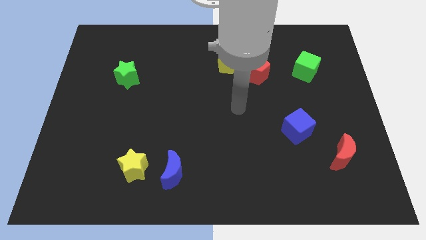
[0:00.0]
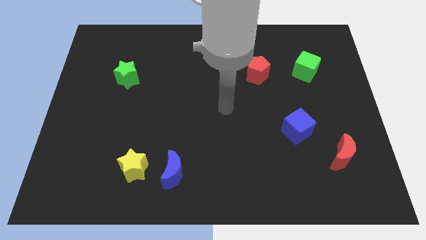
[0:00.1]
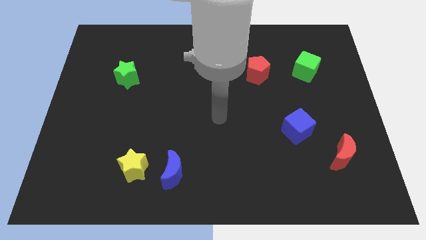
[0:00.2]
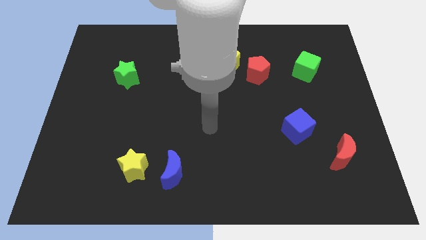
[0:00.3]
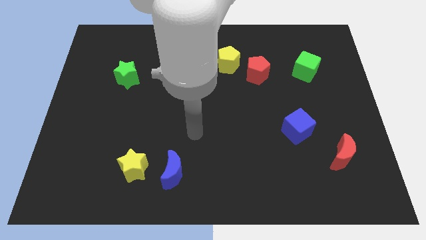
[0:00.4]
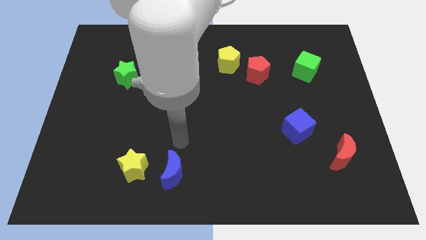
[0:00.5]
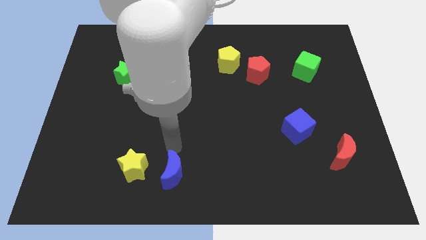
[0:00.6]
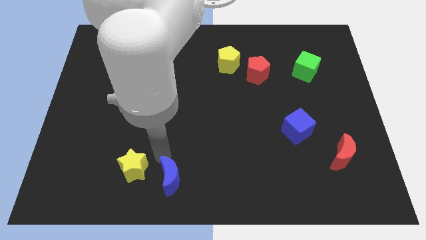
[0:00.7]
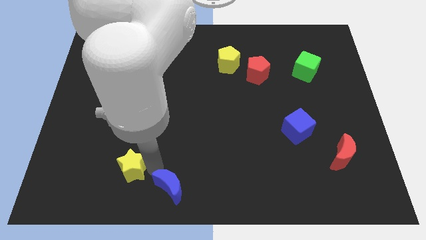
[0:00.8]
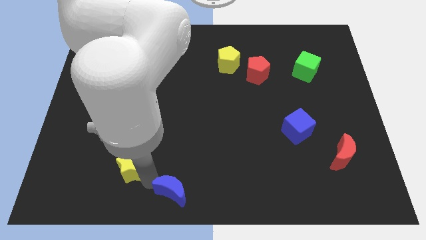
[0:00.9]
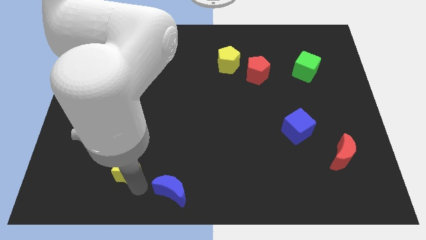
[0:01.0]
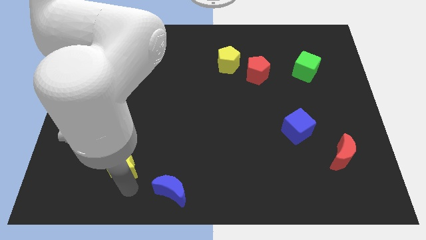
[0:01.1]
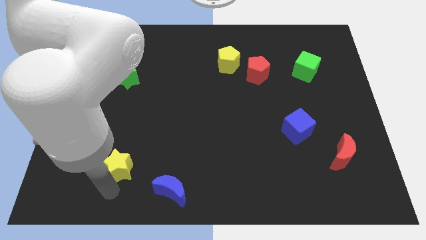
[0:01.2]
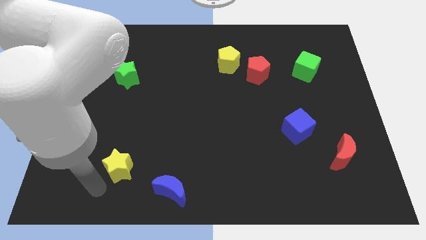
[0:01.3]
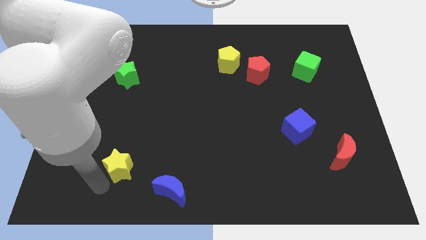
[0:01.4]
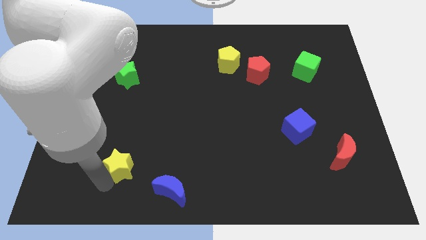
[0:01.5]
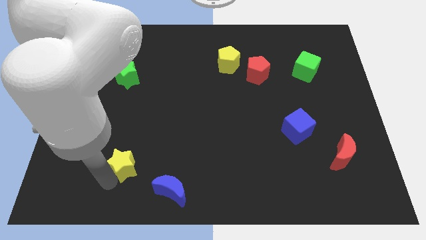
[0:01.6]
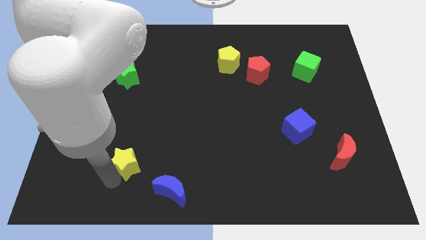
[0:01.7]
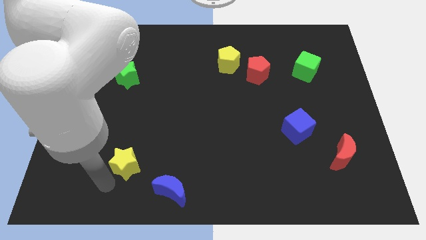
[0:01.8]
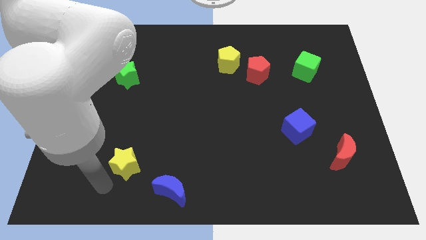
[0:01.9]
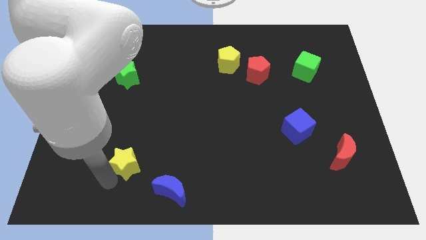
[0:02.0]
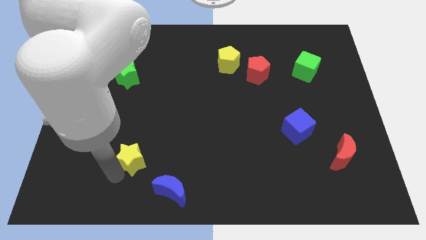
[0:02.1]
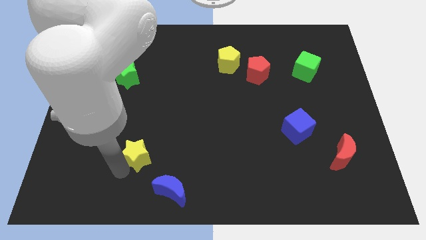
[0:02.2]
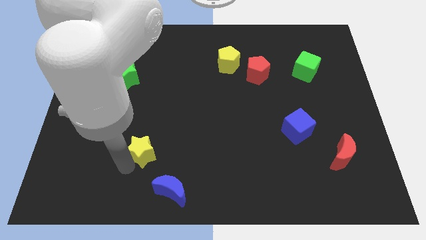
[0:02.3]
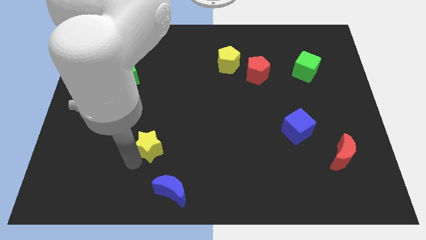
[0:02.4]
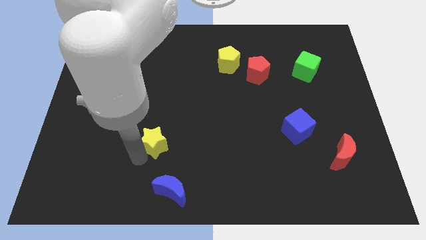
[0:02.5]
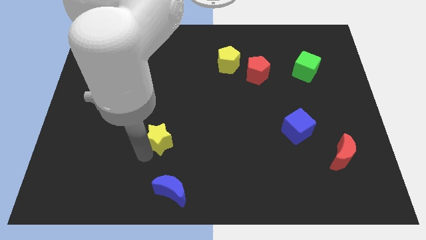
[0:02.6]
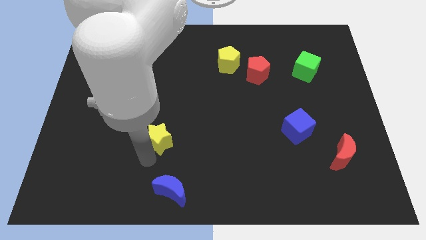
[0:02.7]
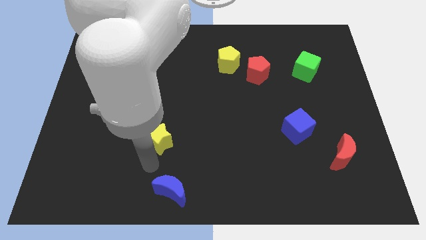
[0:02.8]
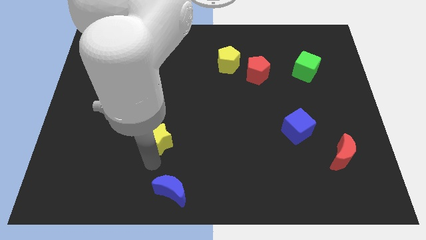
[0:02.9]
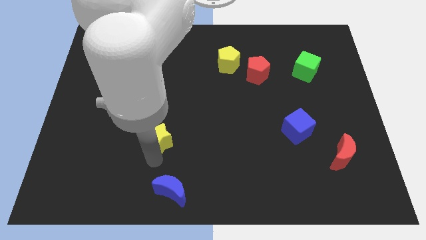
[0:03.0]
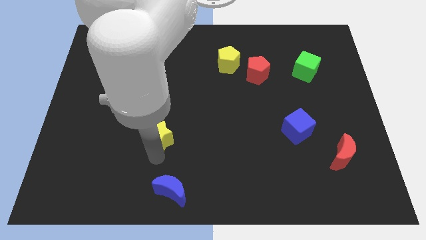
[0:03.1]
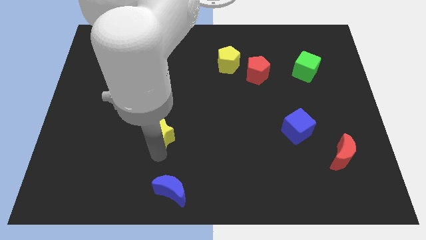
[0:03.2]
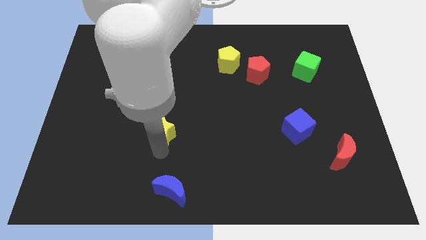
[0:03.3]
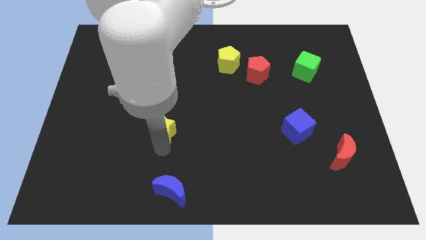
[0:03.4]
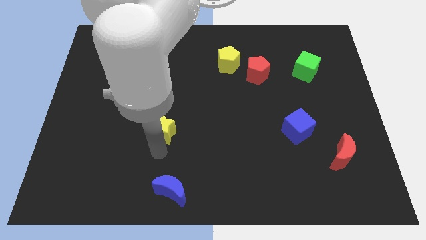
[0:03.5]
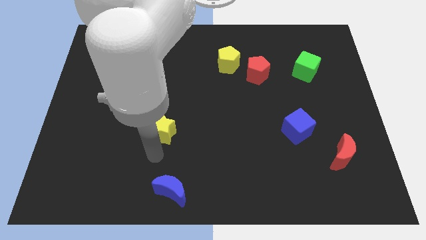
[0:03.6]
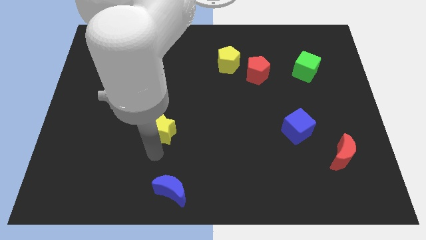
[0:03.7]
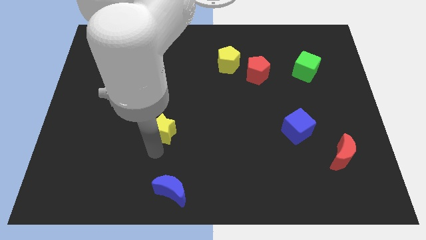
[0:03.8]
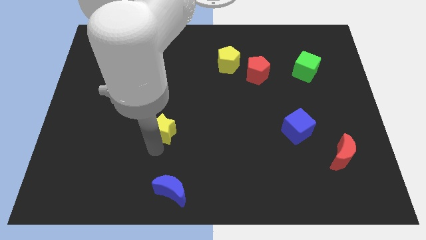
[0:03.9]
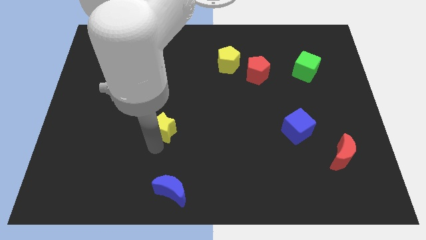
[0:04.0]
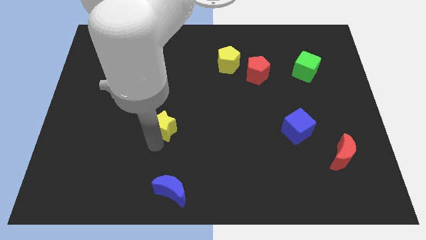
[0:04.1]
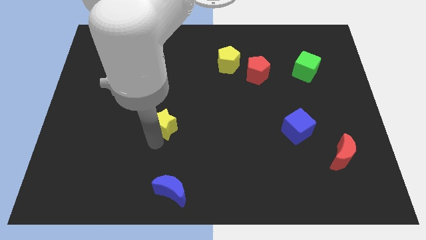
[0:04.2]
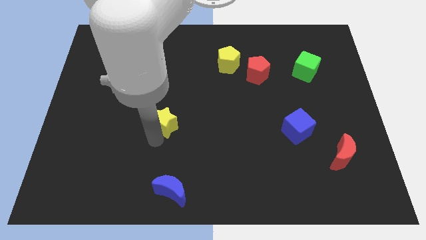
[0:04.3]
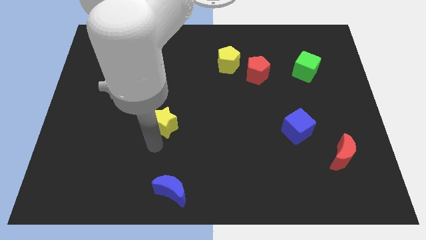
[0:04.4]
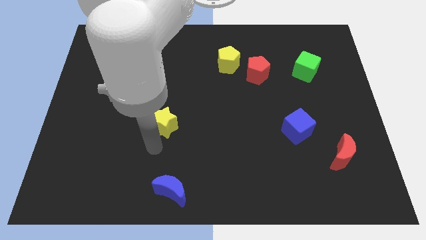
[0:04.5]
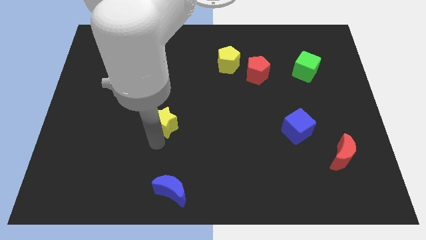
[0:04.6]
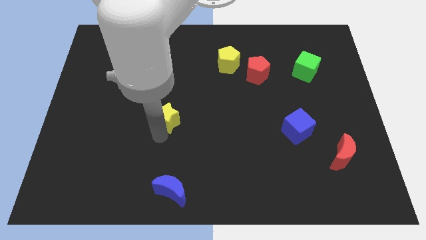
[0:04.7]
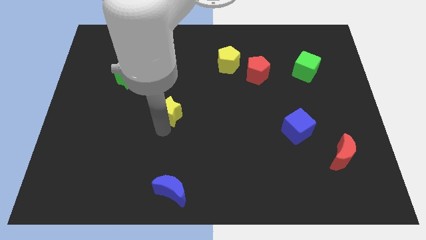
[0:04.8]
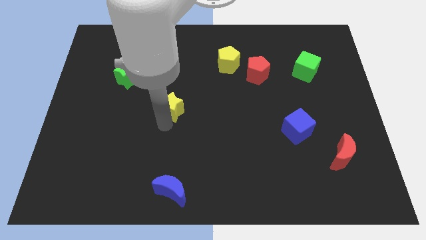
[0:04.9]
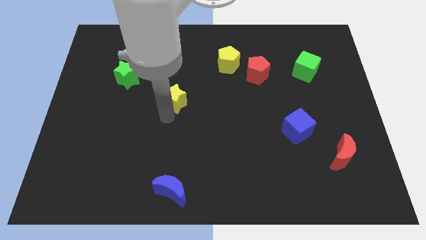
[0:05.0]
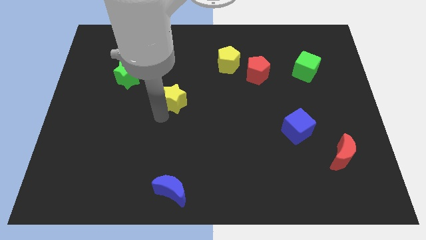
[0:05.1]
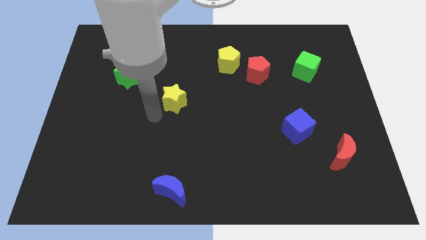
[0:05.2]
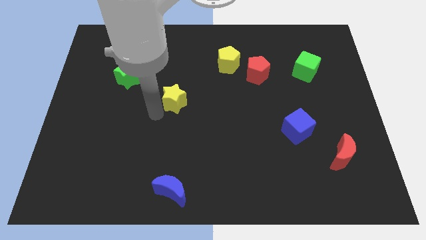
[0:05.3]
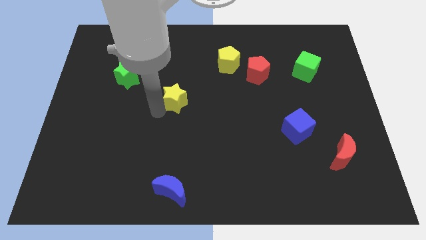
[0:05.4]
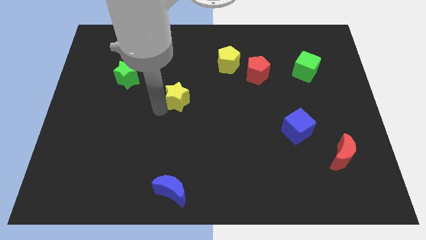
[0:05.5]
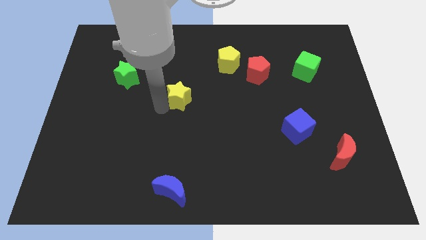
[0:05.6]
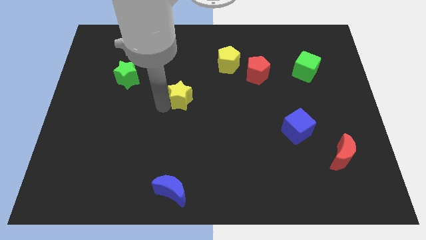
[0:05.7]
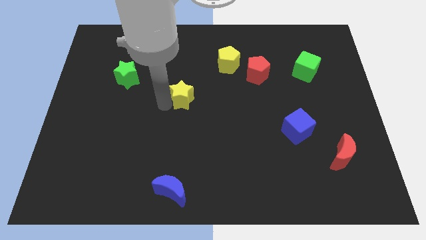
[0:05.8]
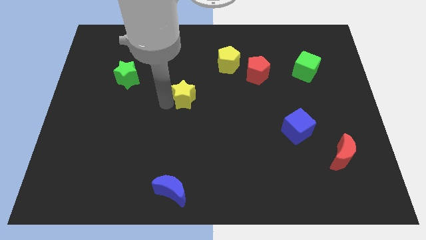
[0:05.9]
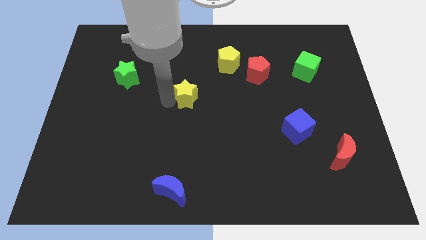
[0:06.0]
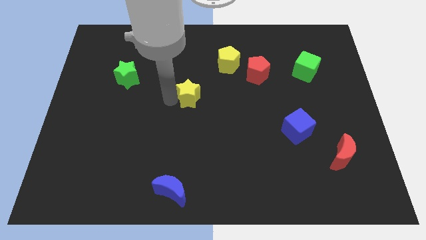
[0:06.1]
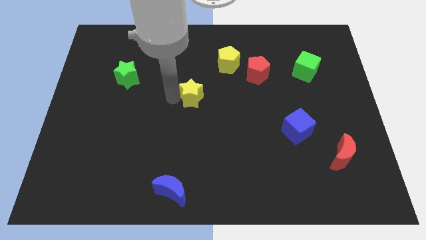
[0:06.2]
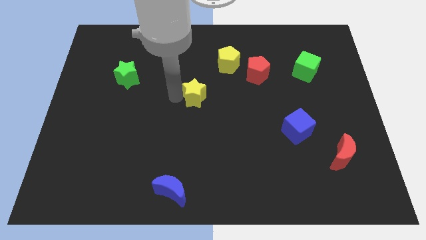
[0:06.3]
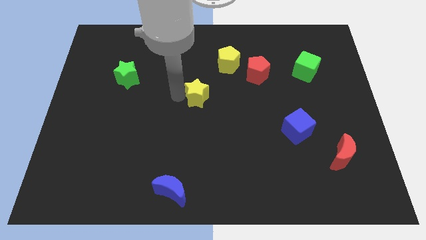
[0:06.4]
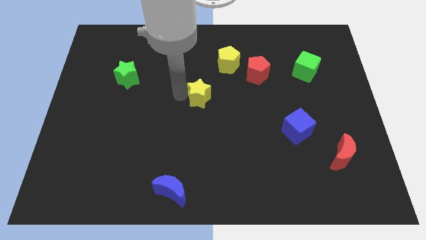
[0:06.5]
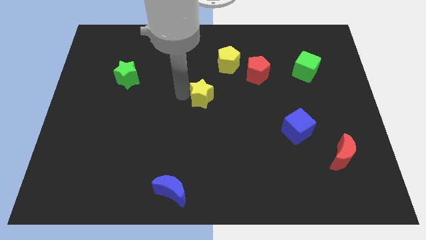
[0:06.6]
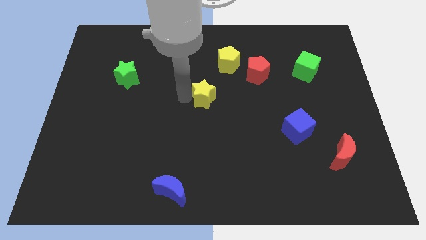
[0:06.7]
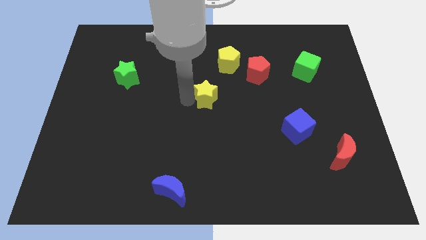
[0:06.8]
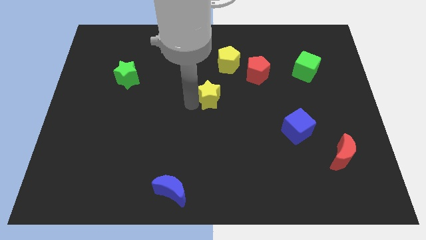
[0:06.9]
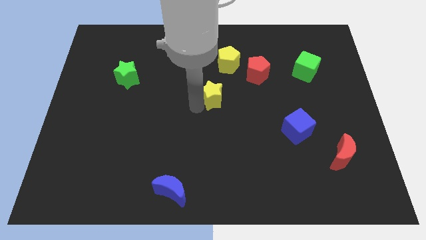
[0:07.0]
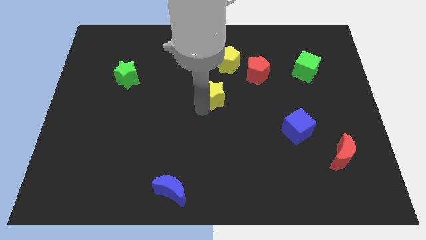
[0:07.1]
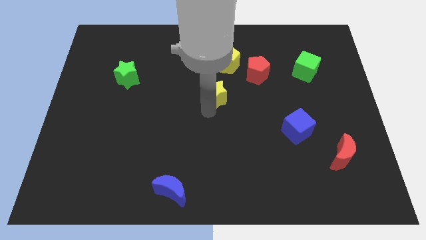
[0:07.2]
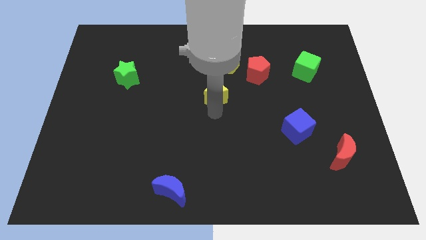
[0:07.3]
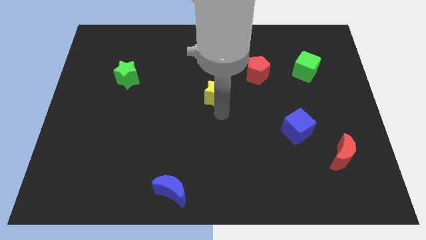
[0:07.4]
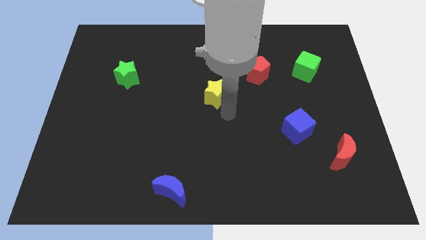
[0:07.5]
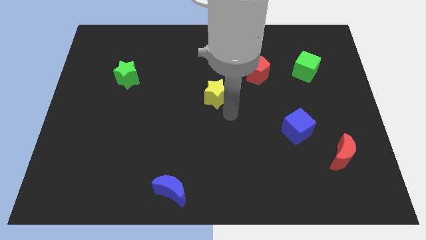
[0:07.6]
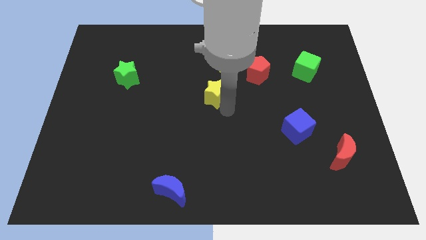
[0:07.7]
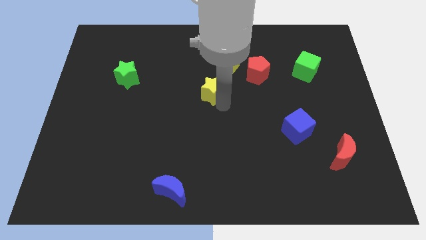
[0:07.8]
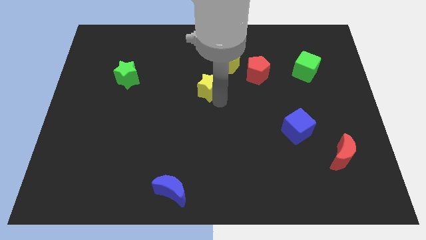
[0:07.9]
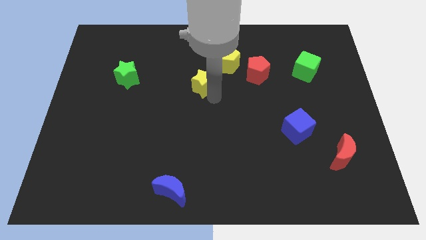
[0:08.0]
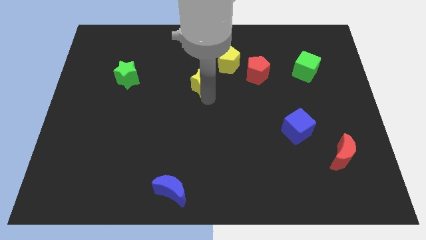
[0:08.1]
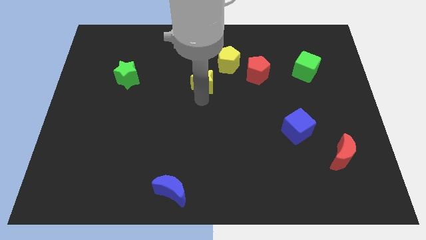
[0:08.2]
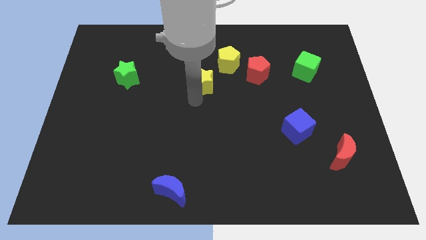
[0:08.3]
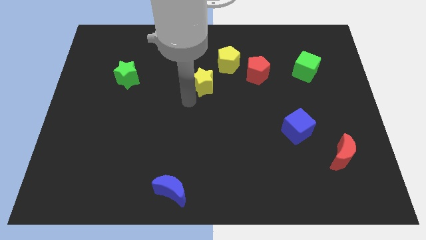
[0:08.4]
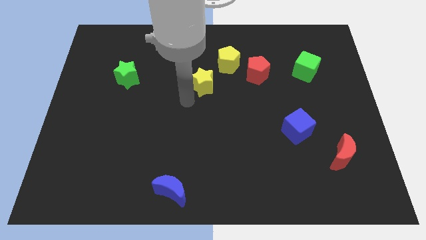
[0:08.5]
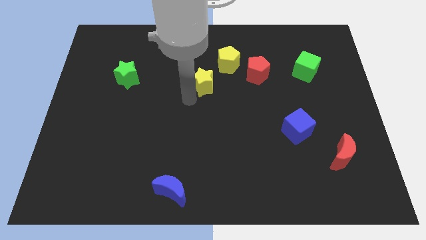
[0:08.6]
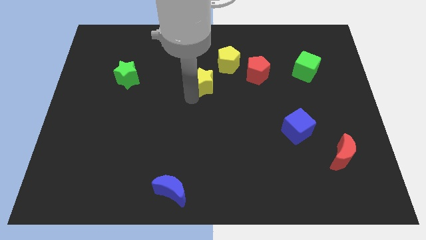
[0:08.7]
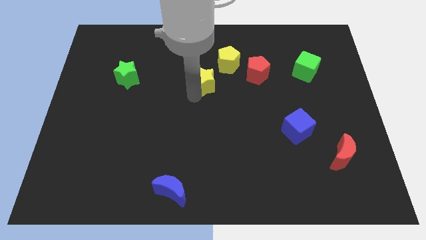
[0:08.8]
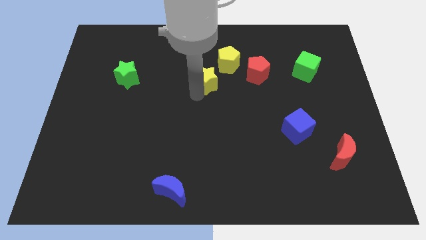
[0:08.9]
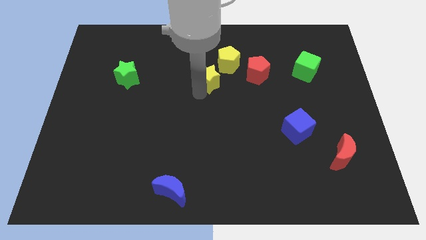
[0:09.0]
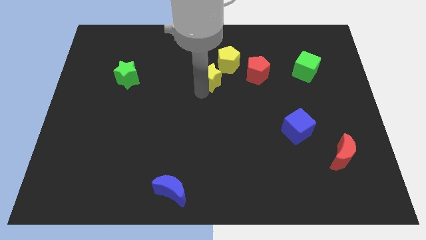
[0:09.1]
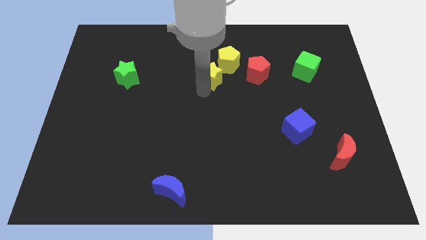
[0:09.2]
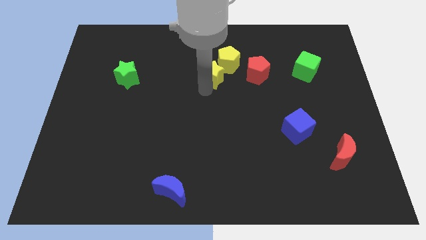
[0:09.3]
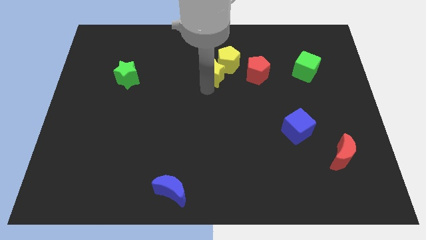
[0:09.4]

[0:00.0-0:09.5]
push the yellow star towards the yellow pentagon
